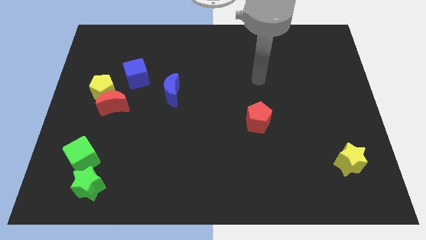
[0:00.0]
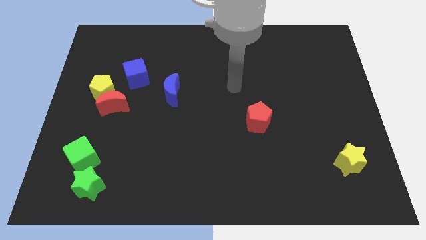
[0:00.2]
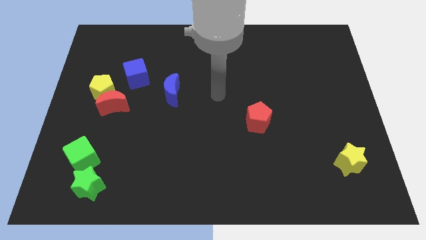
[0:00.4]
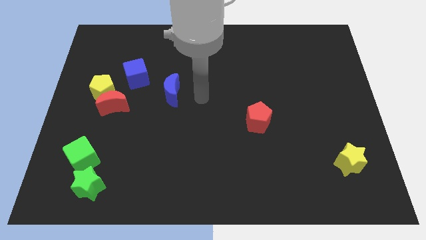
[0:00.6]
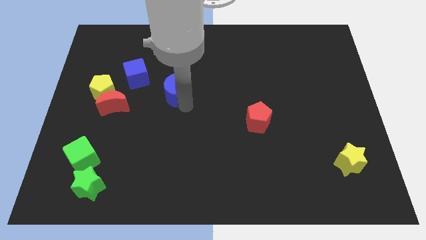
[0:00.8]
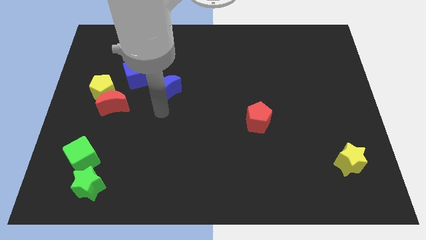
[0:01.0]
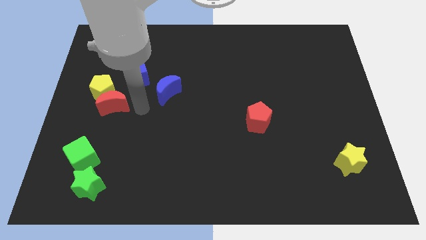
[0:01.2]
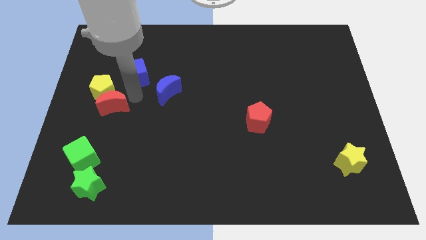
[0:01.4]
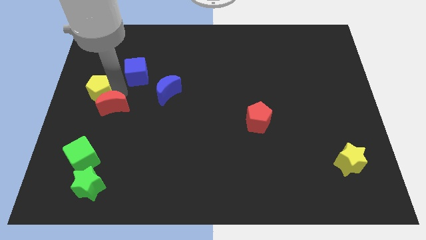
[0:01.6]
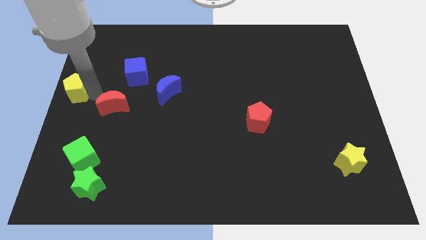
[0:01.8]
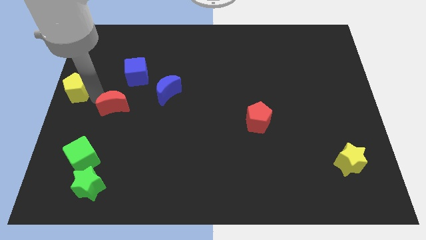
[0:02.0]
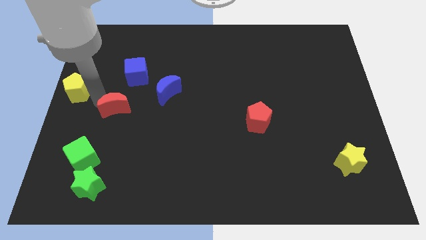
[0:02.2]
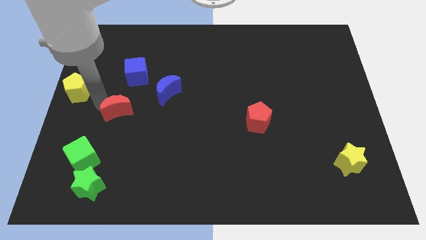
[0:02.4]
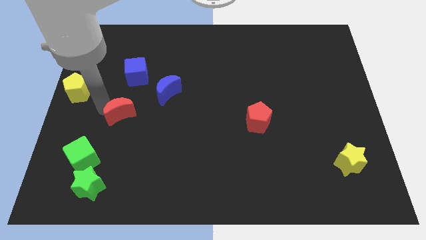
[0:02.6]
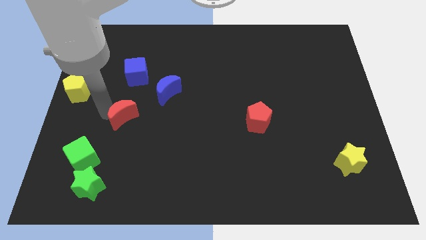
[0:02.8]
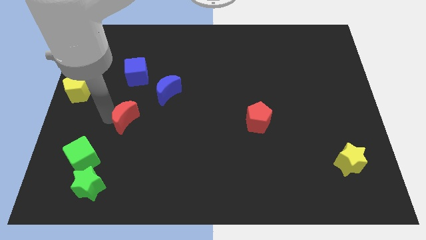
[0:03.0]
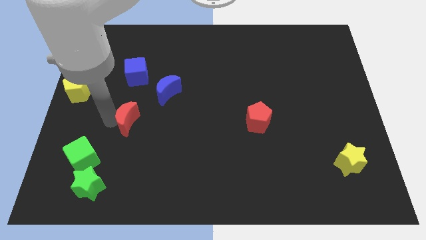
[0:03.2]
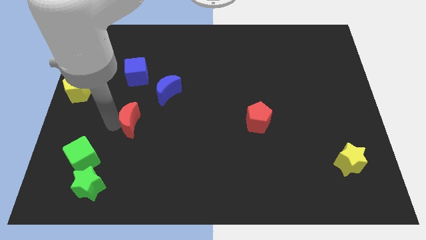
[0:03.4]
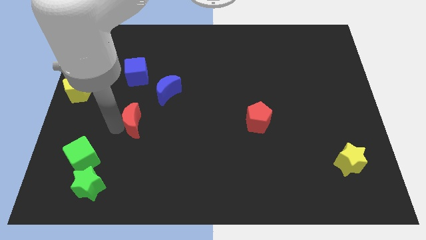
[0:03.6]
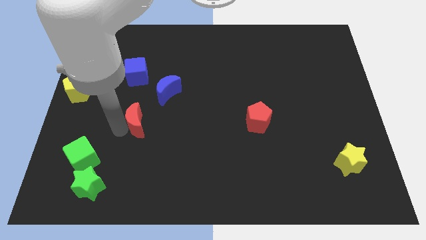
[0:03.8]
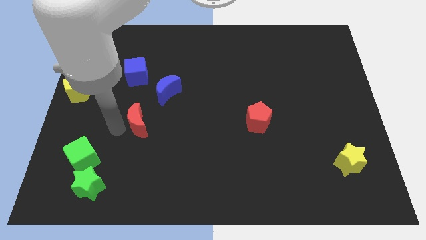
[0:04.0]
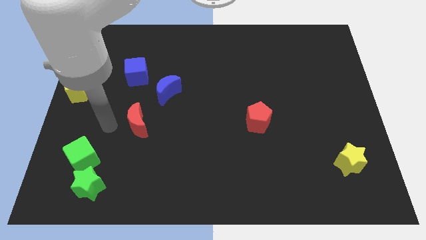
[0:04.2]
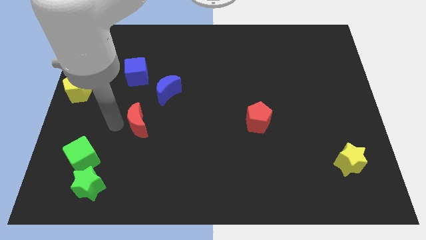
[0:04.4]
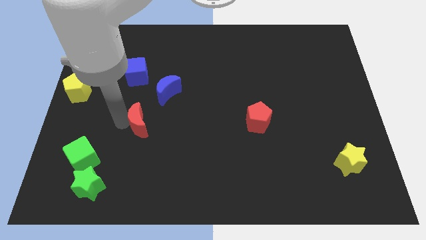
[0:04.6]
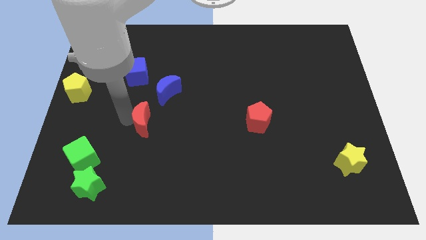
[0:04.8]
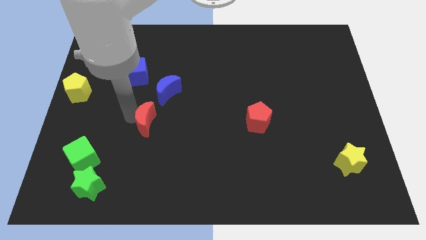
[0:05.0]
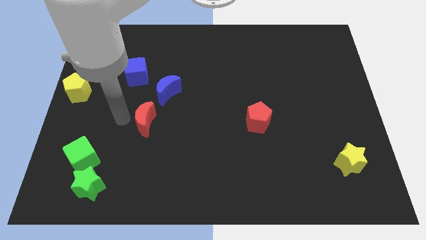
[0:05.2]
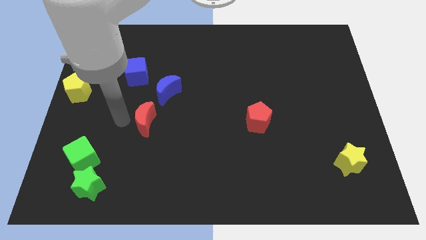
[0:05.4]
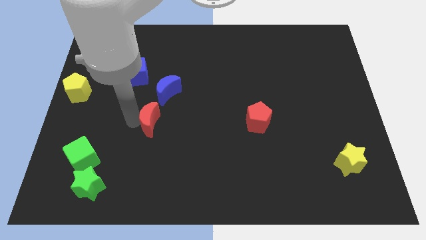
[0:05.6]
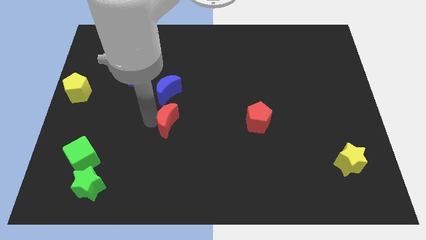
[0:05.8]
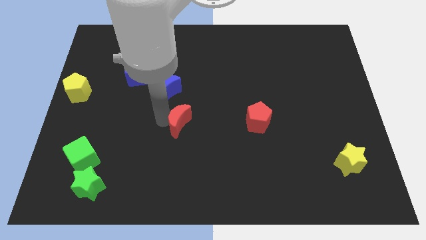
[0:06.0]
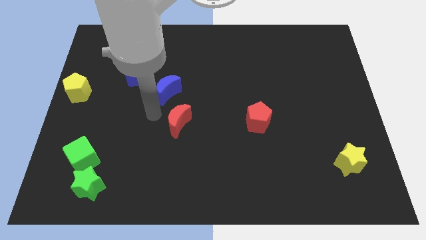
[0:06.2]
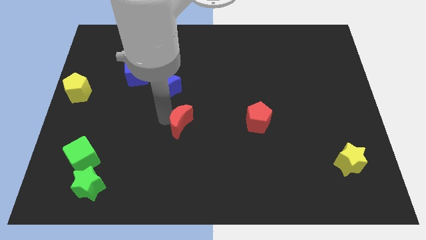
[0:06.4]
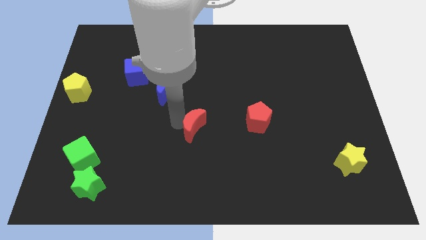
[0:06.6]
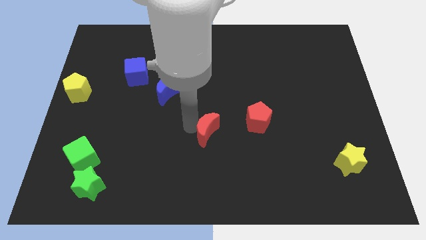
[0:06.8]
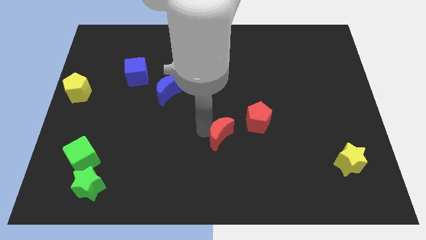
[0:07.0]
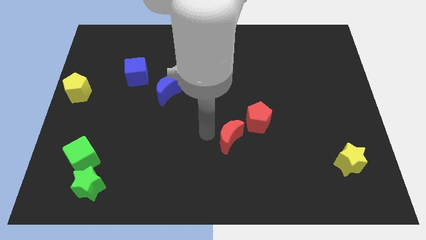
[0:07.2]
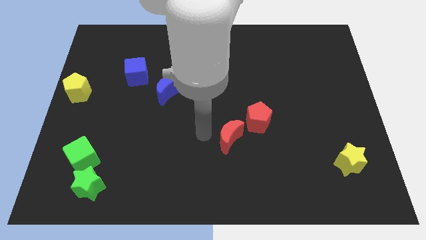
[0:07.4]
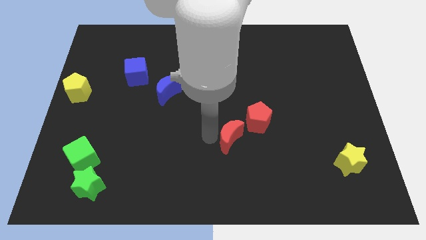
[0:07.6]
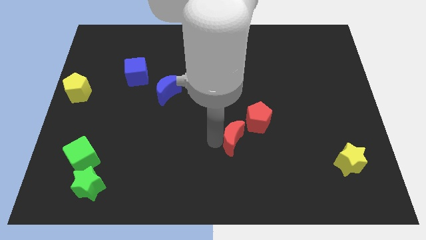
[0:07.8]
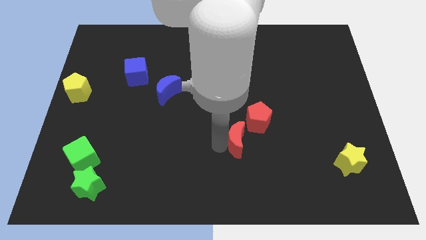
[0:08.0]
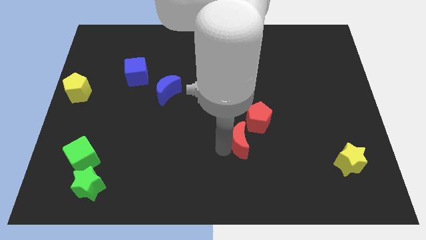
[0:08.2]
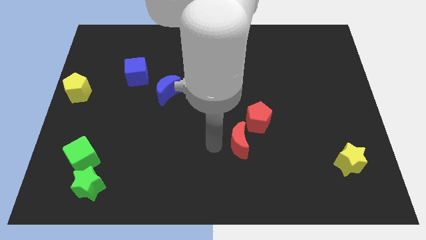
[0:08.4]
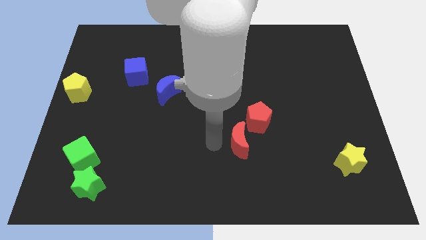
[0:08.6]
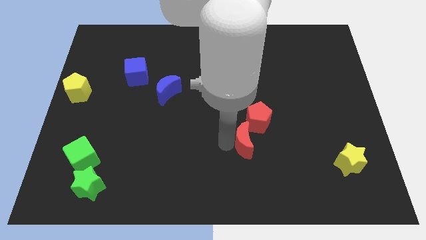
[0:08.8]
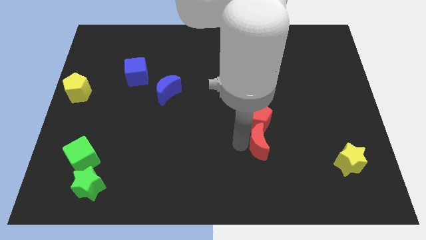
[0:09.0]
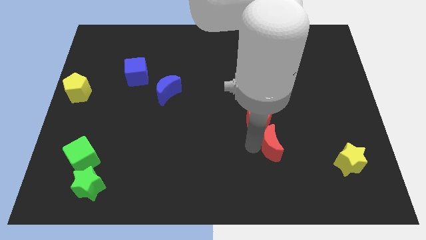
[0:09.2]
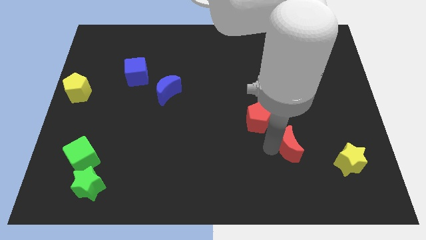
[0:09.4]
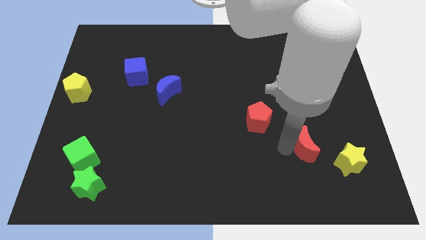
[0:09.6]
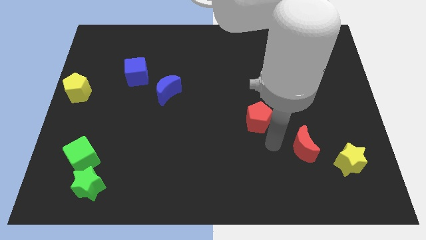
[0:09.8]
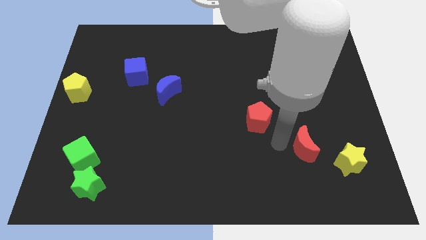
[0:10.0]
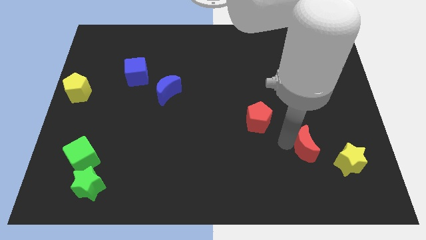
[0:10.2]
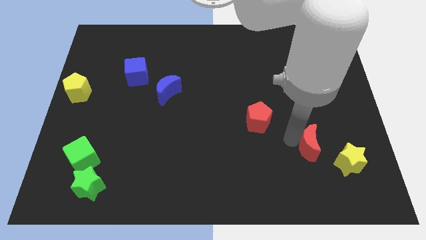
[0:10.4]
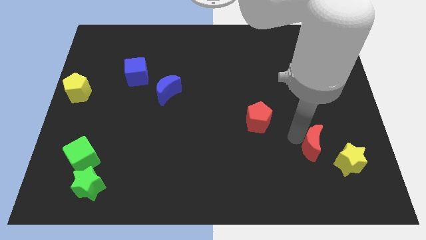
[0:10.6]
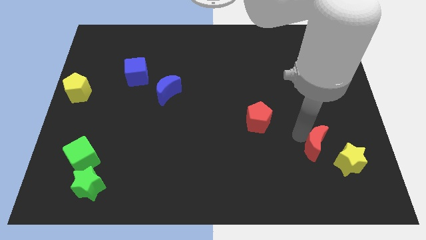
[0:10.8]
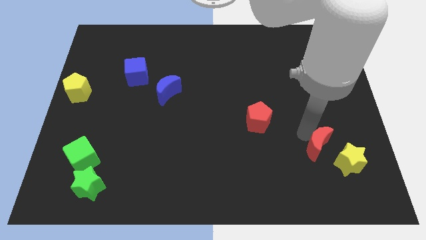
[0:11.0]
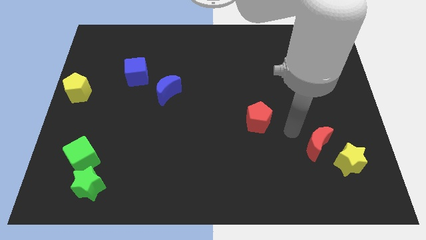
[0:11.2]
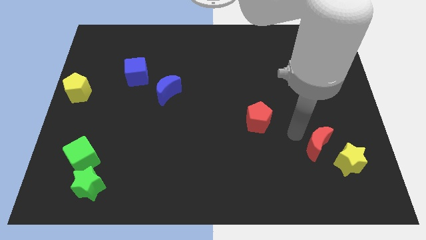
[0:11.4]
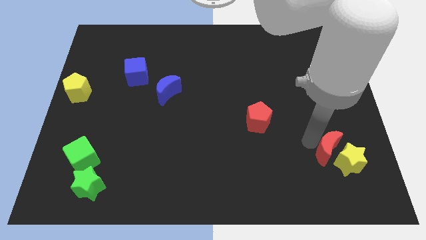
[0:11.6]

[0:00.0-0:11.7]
slide the red moon close to the yellow star
